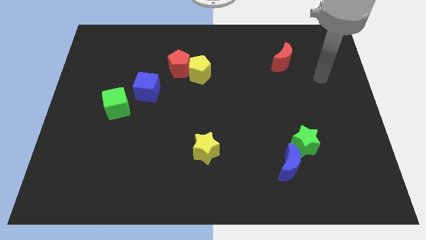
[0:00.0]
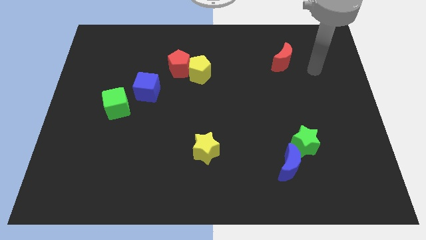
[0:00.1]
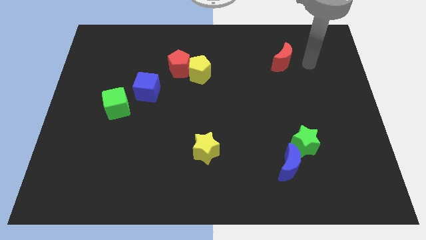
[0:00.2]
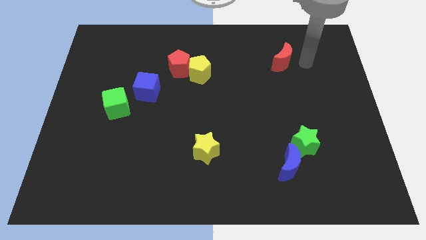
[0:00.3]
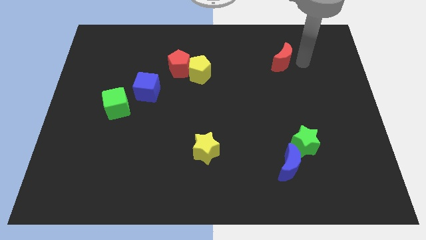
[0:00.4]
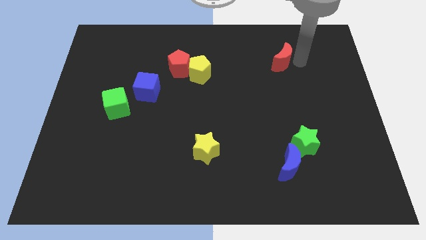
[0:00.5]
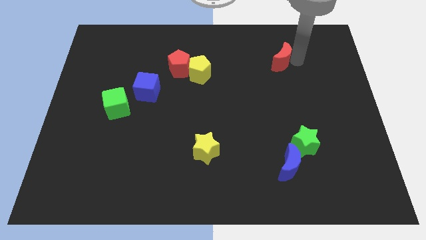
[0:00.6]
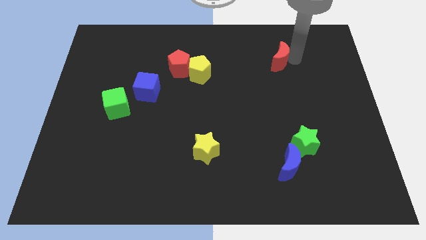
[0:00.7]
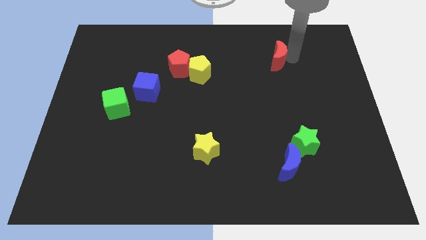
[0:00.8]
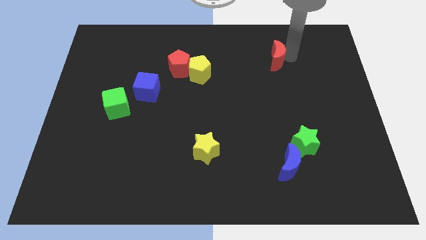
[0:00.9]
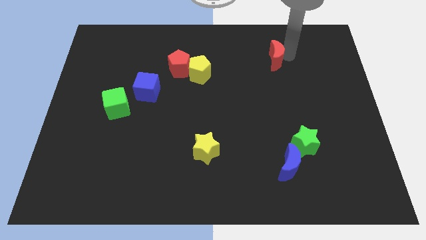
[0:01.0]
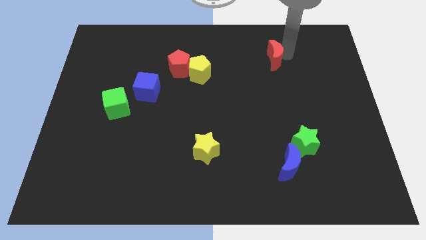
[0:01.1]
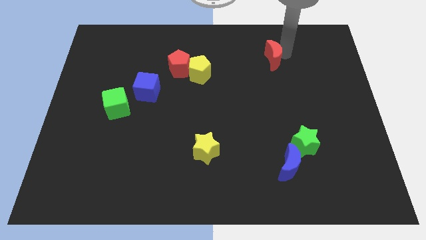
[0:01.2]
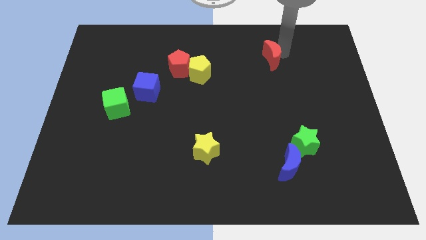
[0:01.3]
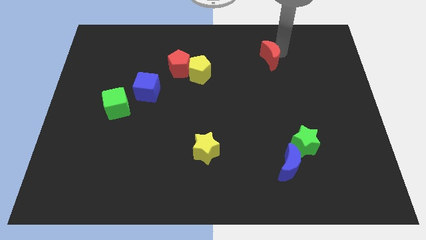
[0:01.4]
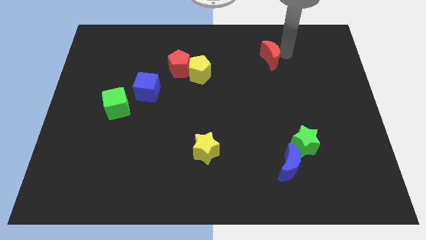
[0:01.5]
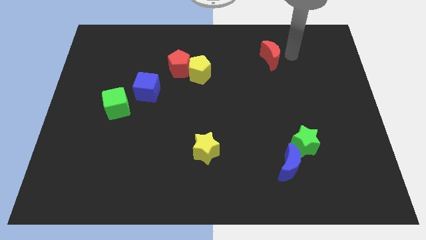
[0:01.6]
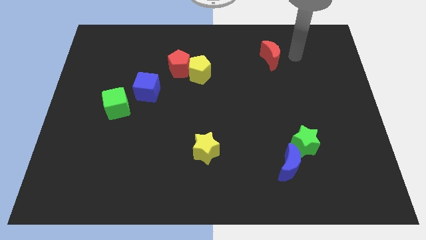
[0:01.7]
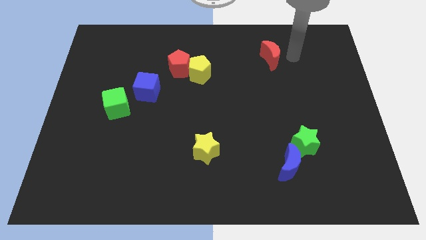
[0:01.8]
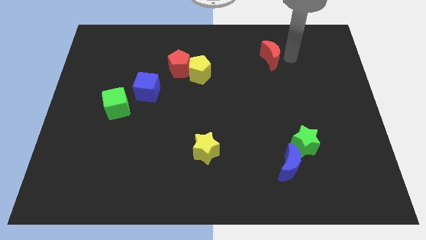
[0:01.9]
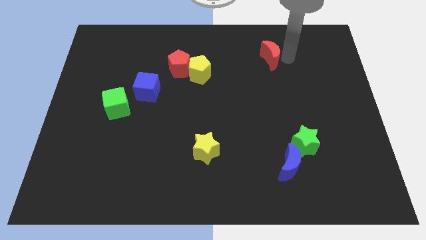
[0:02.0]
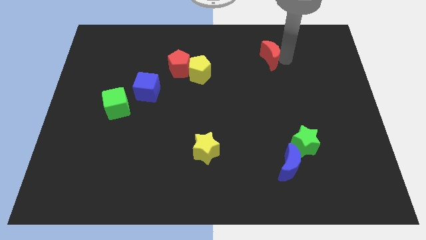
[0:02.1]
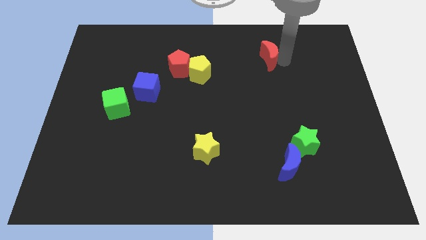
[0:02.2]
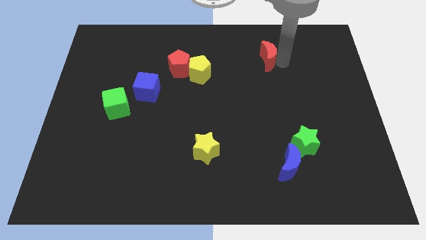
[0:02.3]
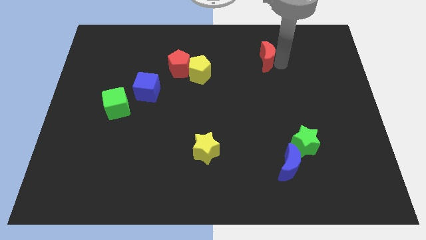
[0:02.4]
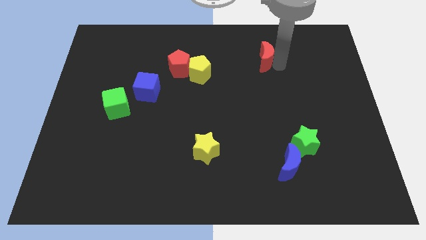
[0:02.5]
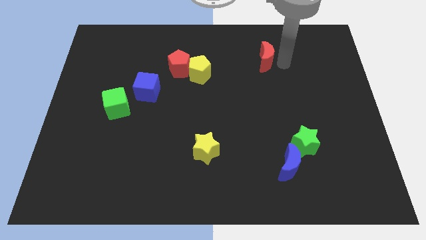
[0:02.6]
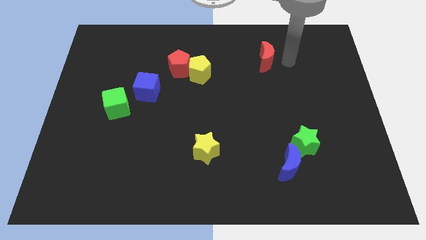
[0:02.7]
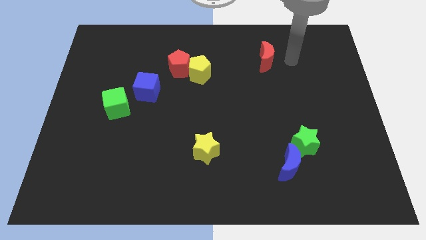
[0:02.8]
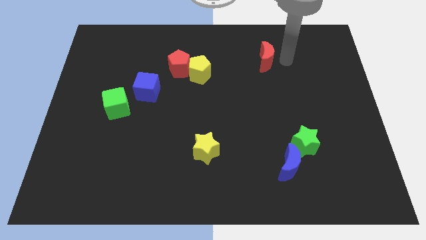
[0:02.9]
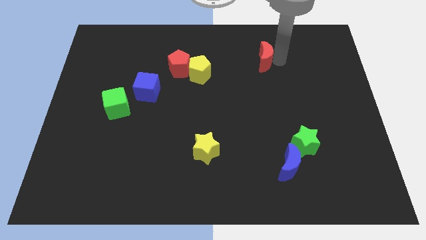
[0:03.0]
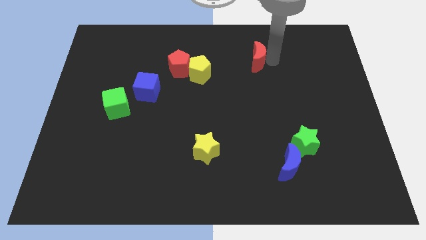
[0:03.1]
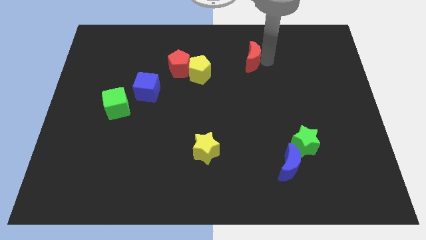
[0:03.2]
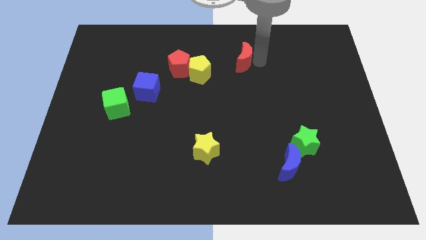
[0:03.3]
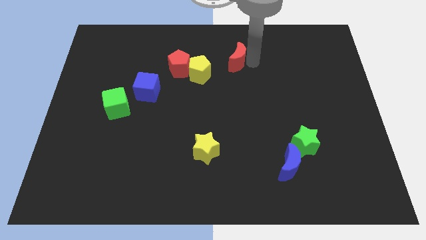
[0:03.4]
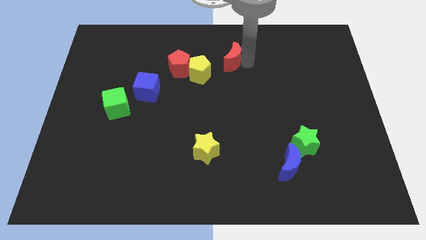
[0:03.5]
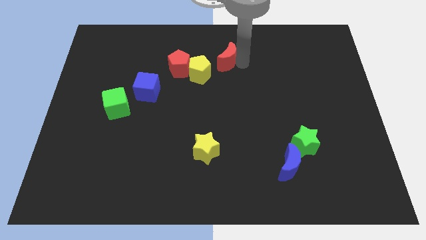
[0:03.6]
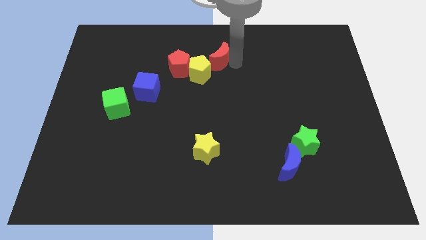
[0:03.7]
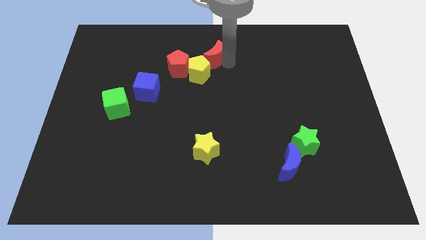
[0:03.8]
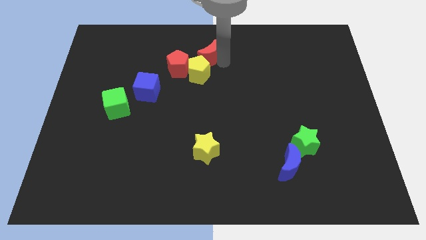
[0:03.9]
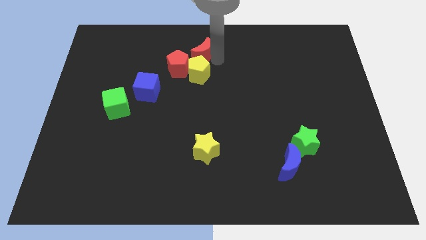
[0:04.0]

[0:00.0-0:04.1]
slide the red moon left

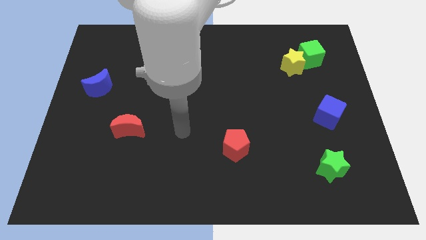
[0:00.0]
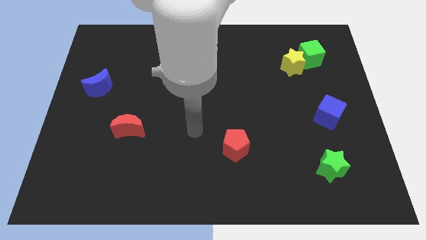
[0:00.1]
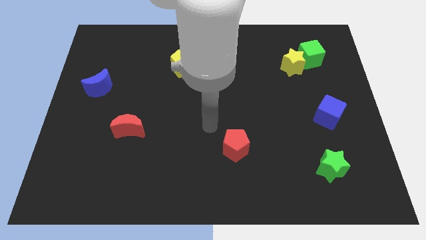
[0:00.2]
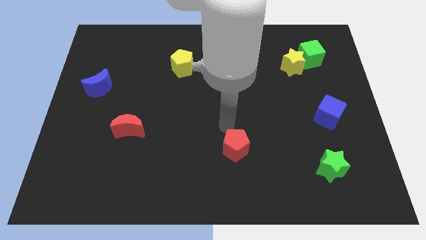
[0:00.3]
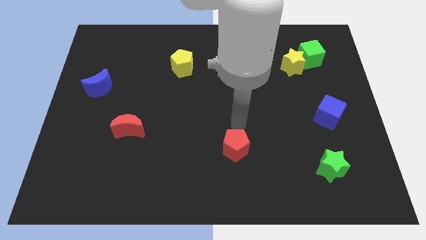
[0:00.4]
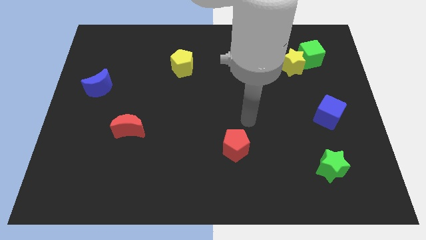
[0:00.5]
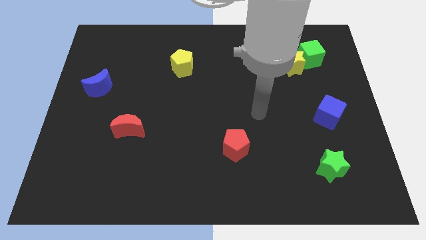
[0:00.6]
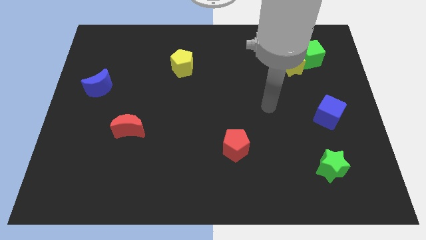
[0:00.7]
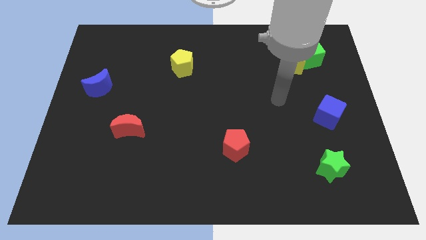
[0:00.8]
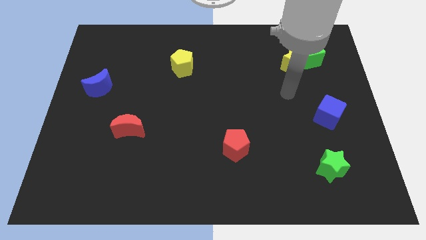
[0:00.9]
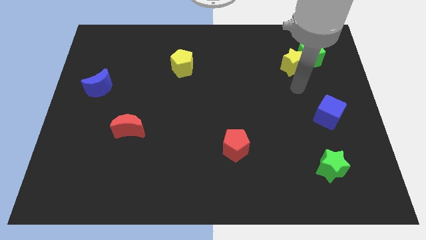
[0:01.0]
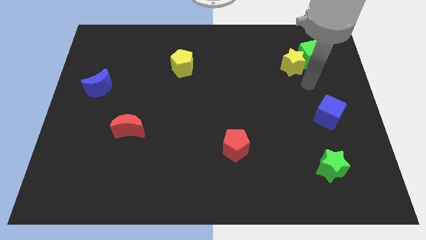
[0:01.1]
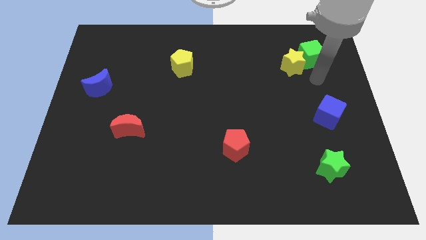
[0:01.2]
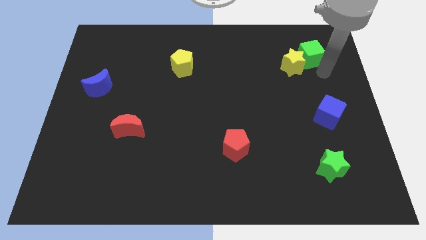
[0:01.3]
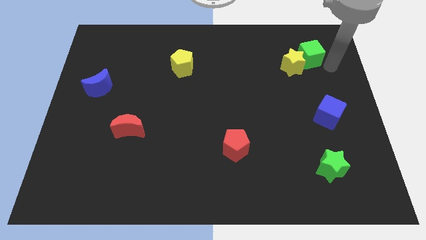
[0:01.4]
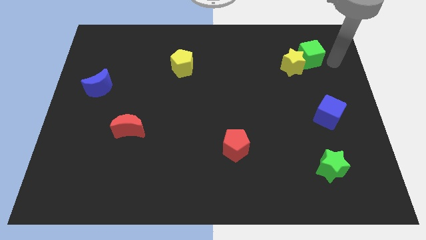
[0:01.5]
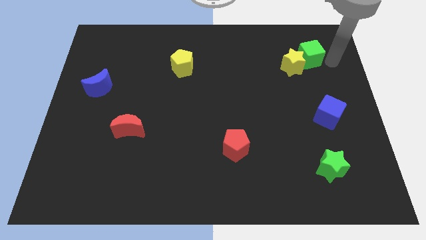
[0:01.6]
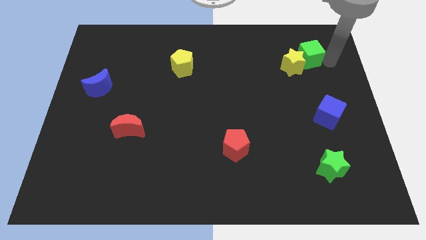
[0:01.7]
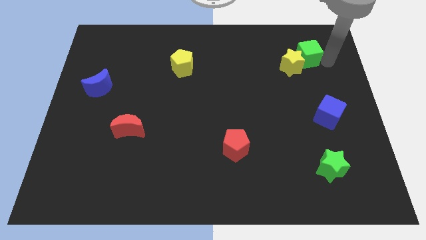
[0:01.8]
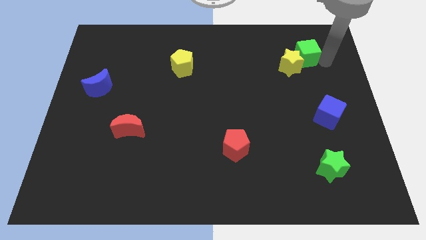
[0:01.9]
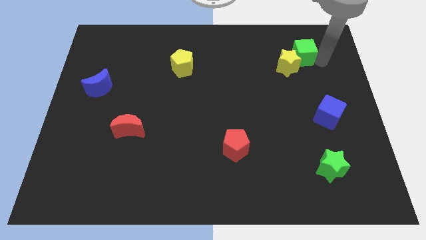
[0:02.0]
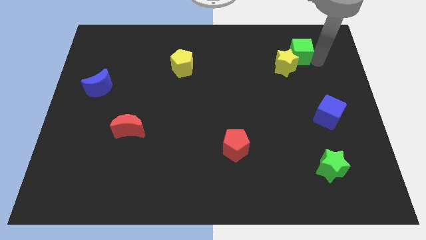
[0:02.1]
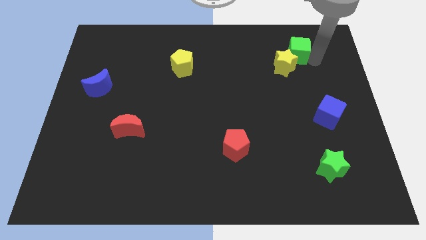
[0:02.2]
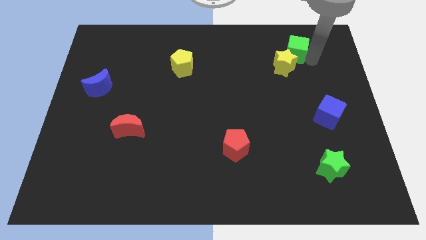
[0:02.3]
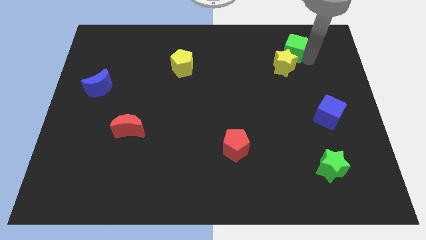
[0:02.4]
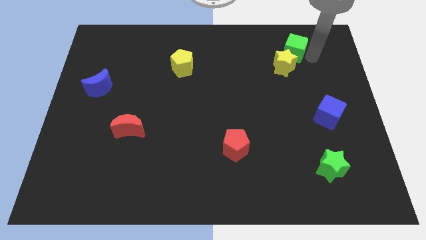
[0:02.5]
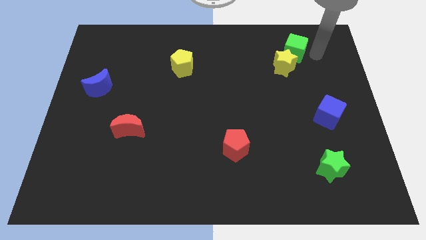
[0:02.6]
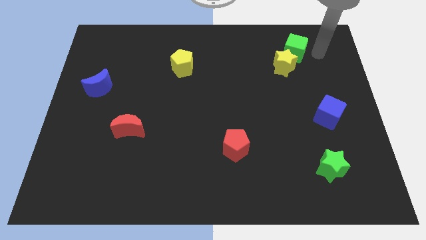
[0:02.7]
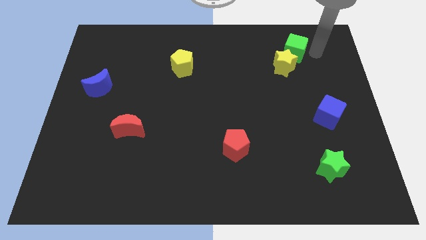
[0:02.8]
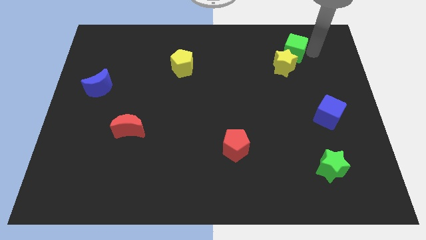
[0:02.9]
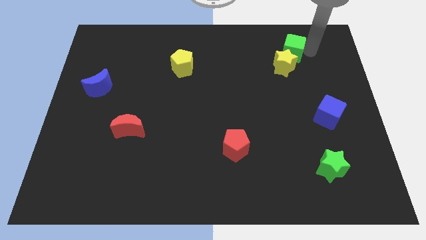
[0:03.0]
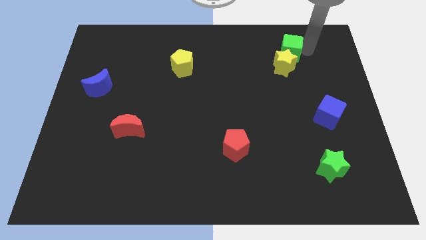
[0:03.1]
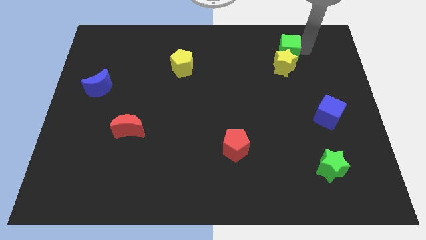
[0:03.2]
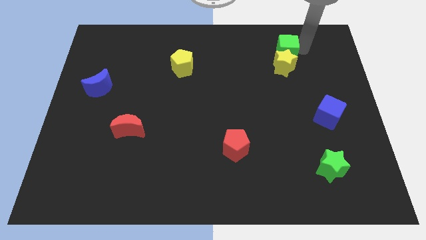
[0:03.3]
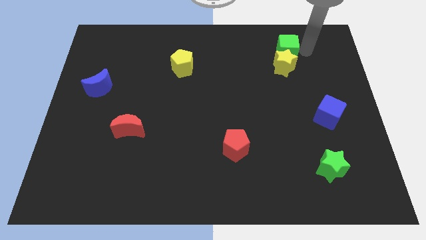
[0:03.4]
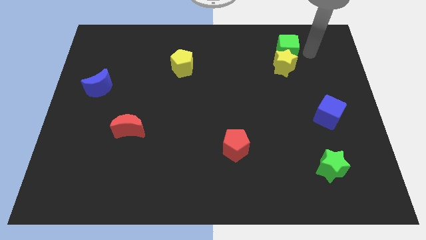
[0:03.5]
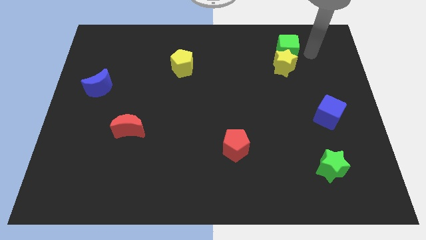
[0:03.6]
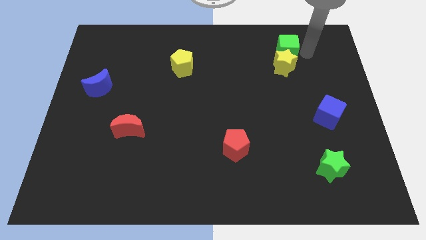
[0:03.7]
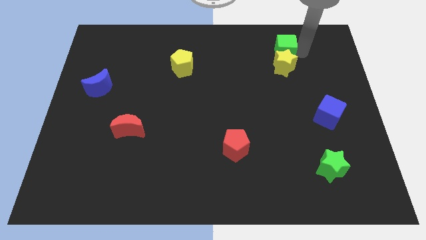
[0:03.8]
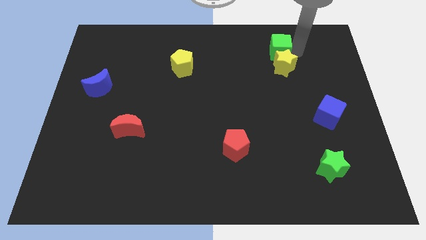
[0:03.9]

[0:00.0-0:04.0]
slightly move the green cube to the left
